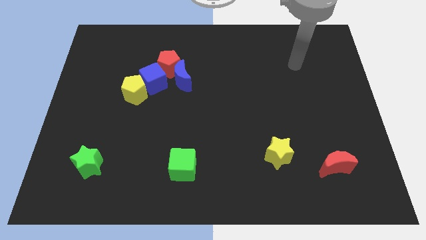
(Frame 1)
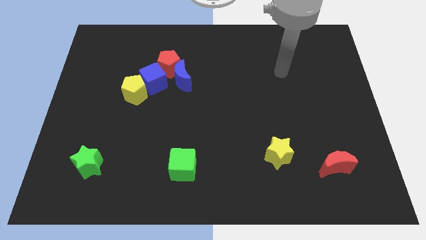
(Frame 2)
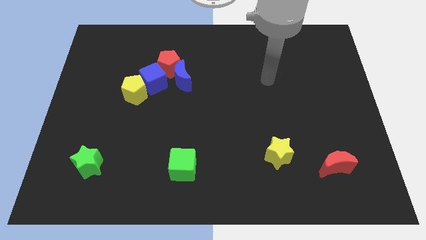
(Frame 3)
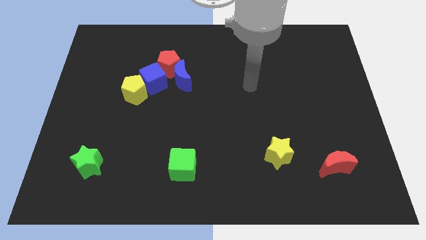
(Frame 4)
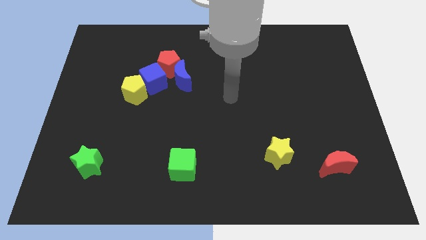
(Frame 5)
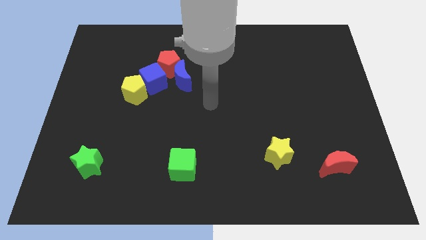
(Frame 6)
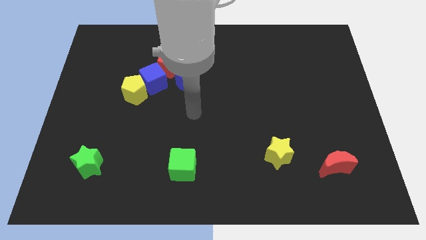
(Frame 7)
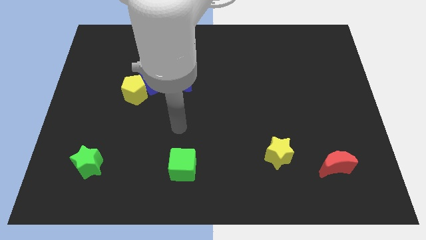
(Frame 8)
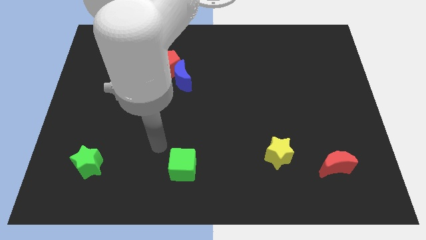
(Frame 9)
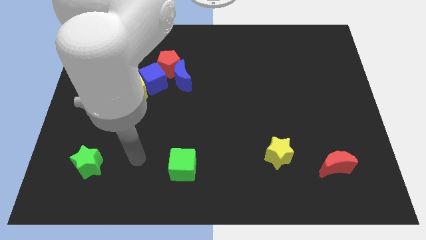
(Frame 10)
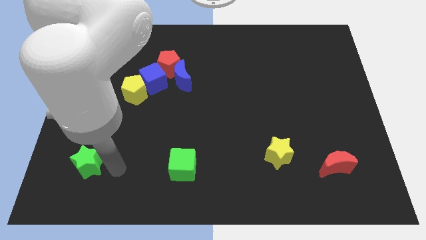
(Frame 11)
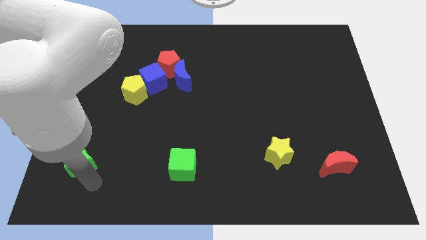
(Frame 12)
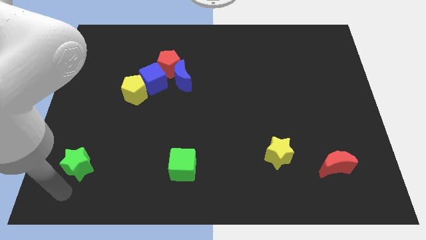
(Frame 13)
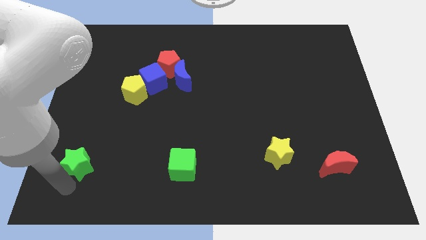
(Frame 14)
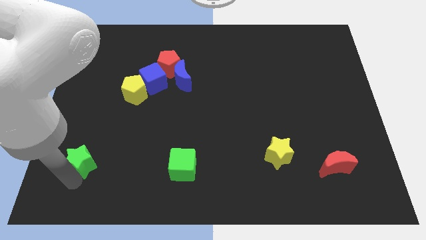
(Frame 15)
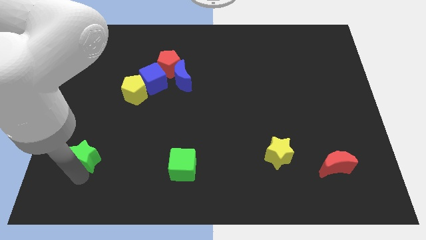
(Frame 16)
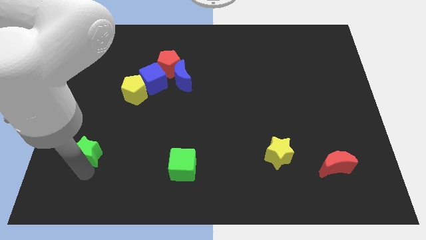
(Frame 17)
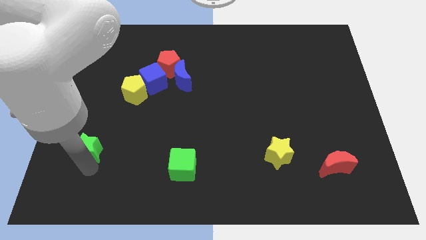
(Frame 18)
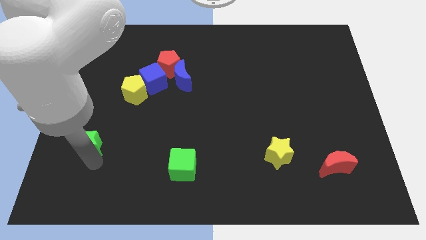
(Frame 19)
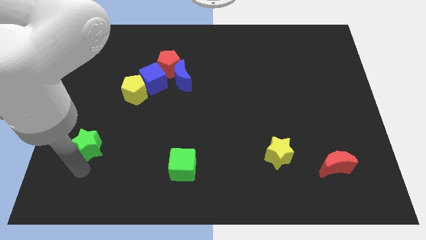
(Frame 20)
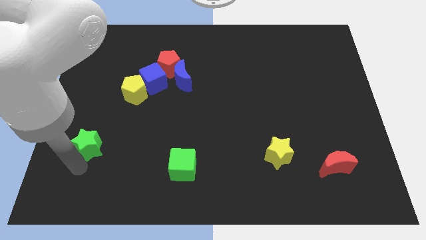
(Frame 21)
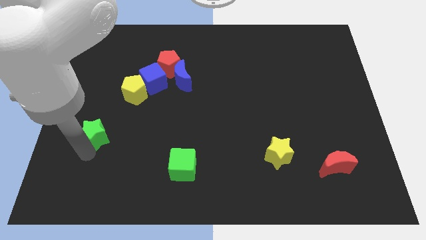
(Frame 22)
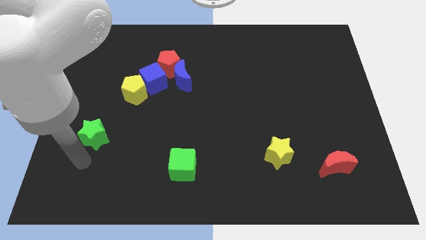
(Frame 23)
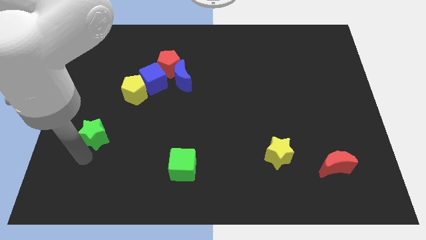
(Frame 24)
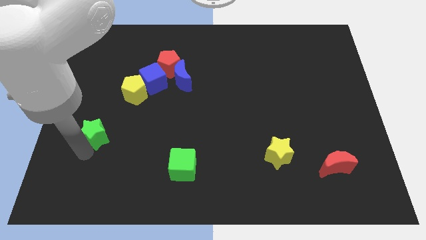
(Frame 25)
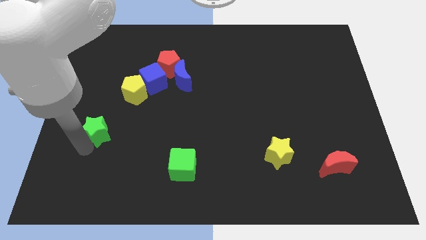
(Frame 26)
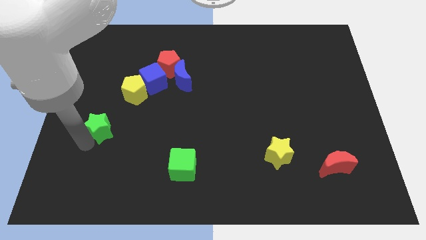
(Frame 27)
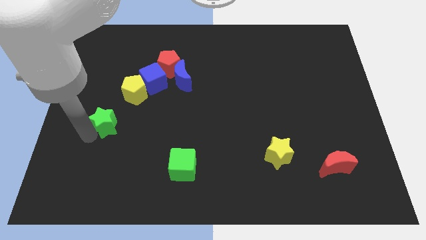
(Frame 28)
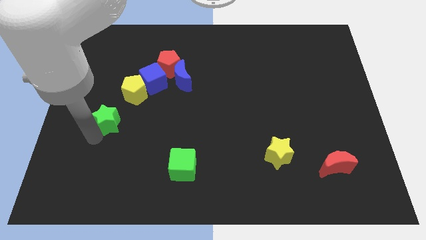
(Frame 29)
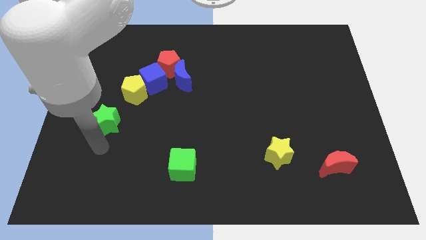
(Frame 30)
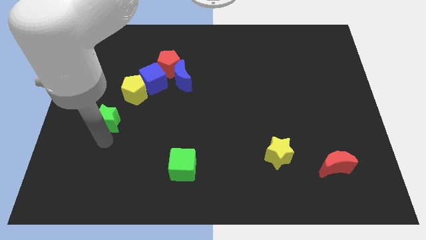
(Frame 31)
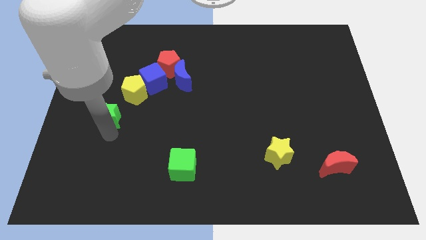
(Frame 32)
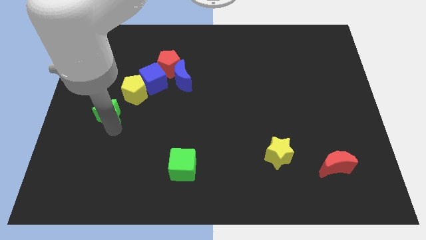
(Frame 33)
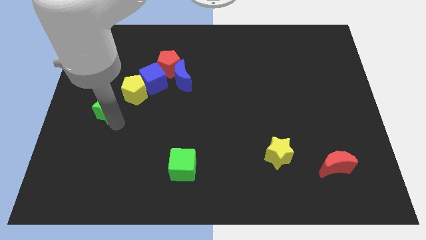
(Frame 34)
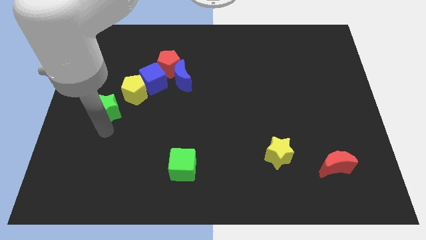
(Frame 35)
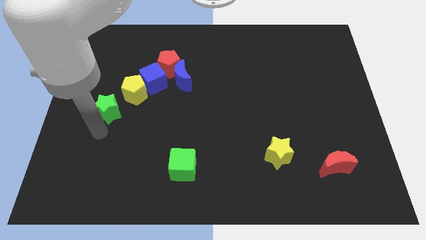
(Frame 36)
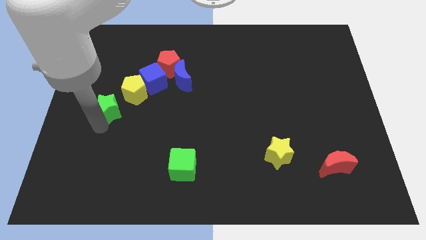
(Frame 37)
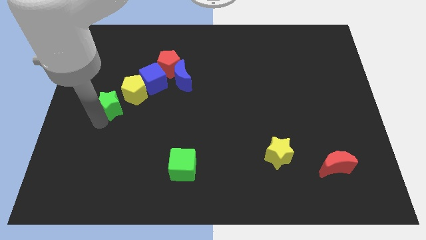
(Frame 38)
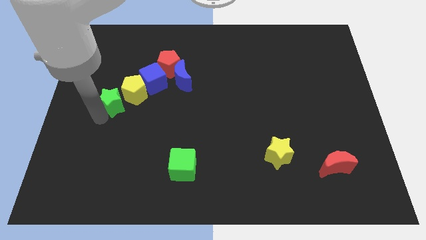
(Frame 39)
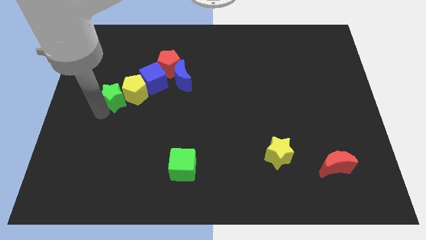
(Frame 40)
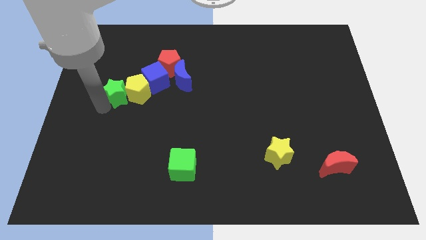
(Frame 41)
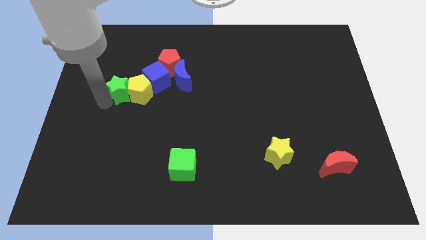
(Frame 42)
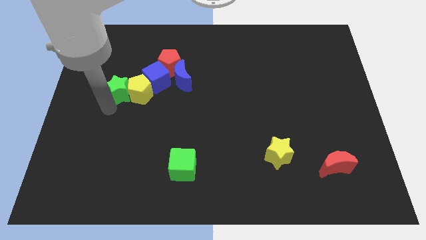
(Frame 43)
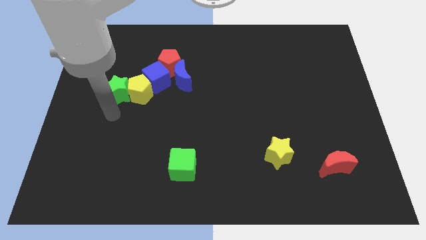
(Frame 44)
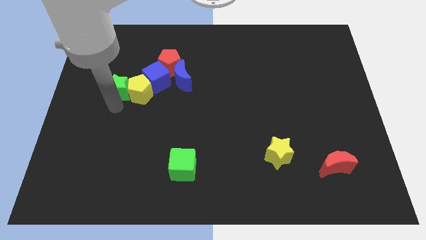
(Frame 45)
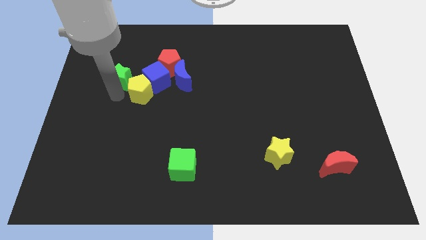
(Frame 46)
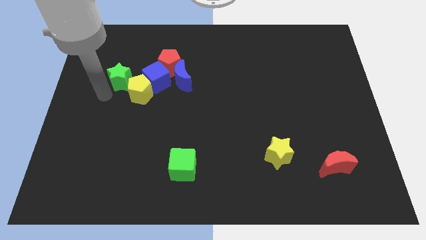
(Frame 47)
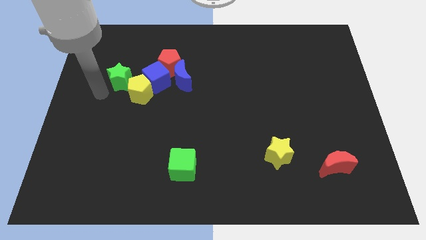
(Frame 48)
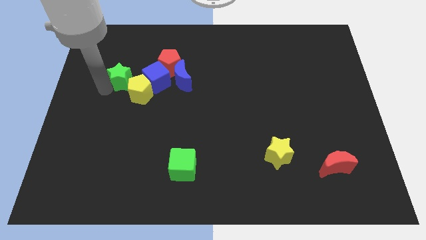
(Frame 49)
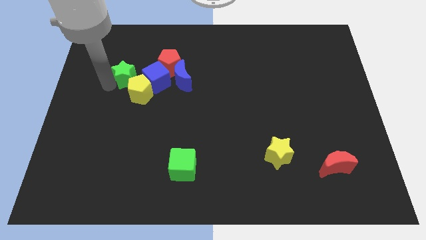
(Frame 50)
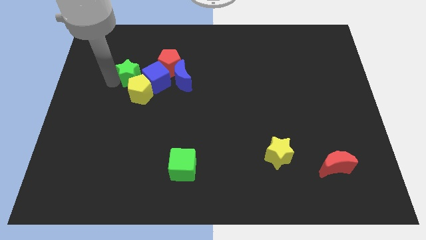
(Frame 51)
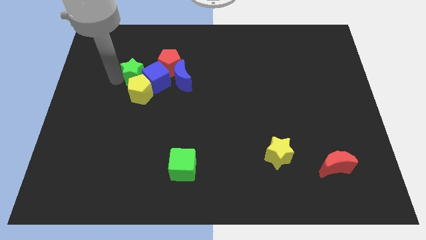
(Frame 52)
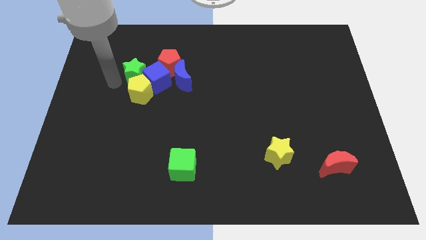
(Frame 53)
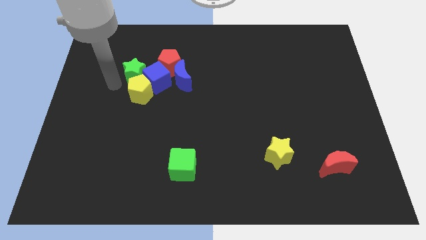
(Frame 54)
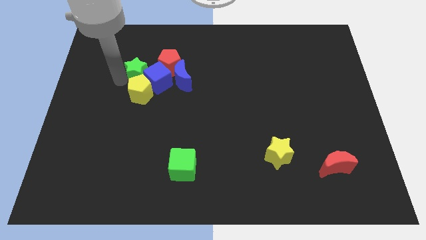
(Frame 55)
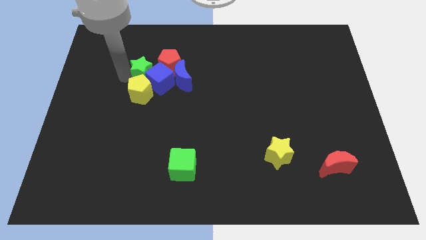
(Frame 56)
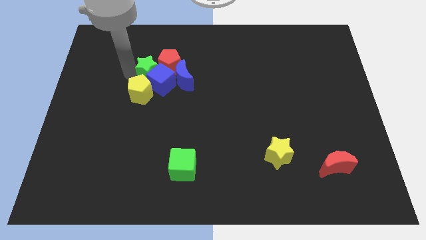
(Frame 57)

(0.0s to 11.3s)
push the green star diagonally up and to the left of the blue moon

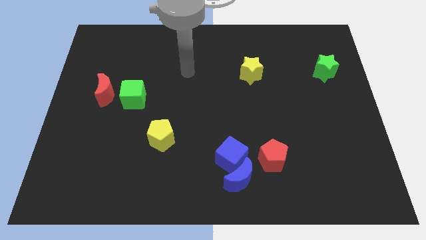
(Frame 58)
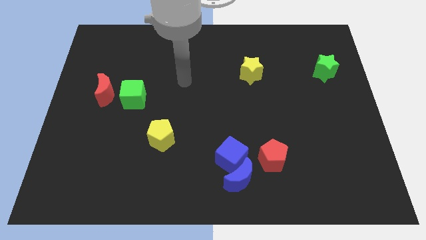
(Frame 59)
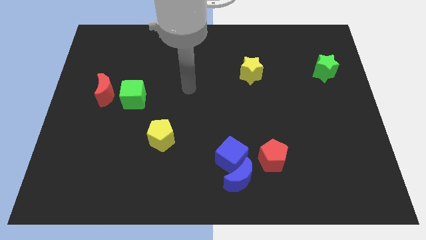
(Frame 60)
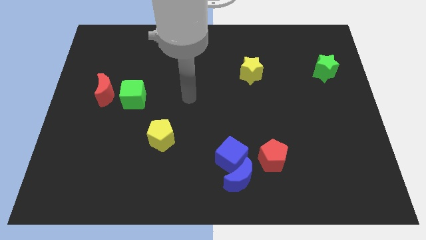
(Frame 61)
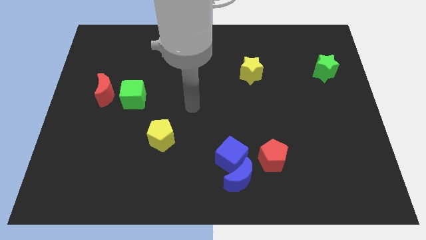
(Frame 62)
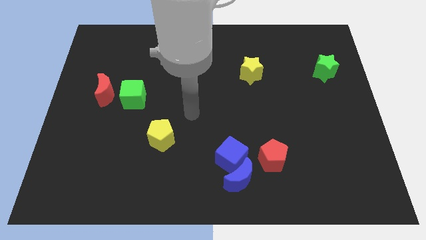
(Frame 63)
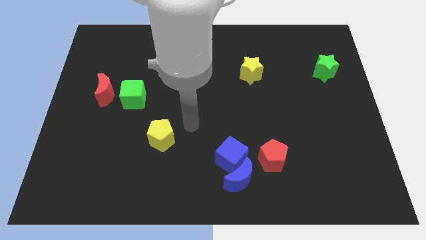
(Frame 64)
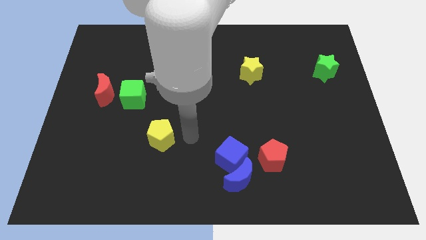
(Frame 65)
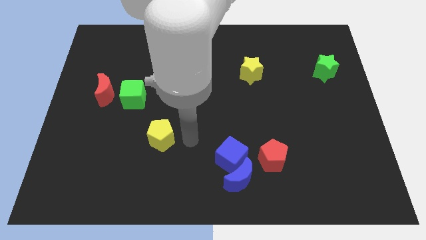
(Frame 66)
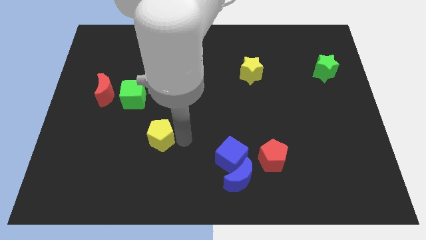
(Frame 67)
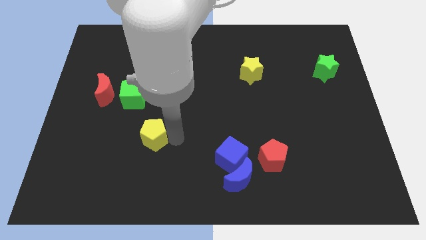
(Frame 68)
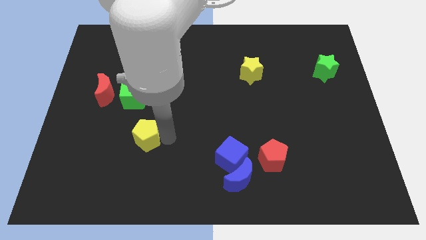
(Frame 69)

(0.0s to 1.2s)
move the yellow pentagon to the bottom side of the green cube

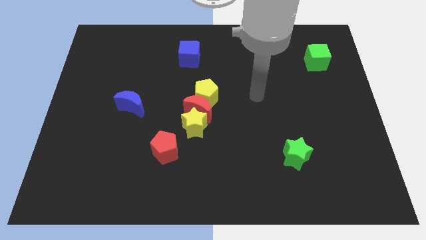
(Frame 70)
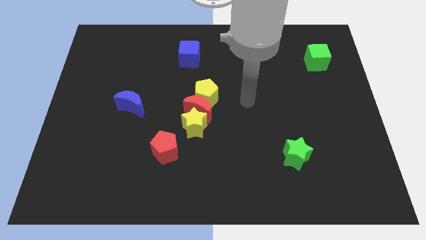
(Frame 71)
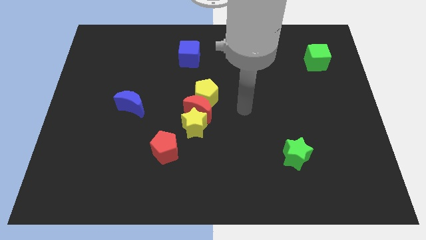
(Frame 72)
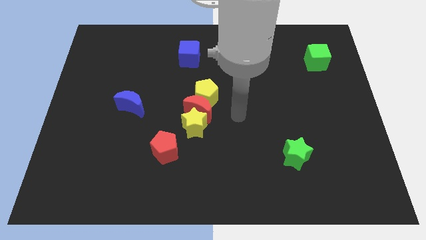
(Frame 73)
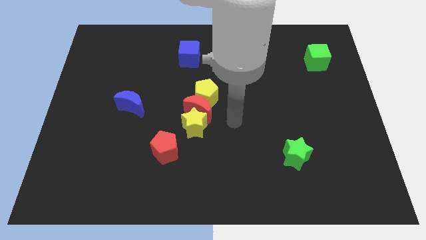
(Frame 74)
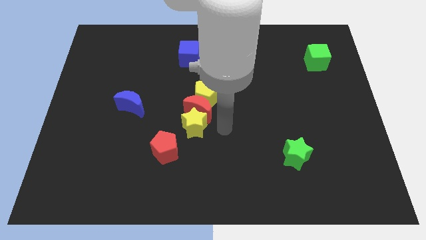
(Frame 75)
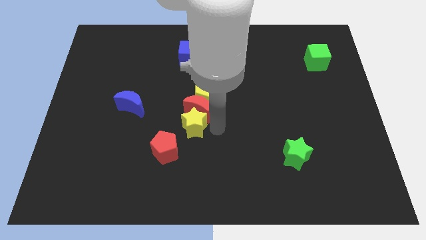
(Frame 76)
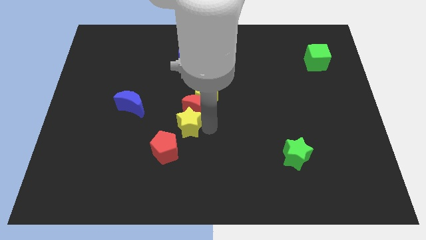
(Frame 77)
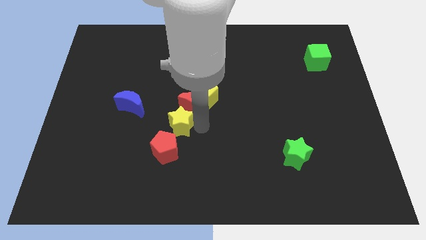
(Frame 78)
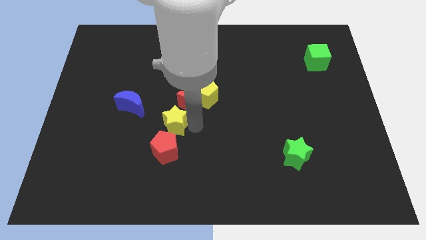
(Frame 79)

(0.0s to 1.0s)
push the yellow star right of the blue moon
